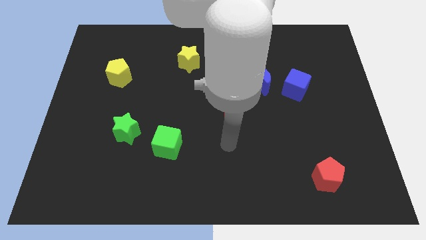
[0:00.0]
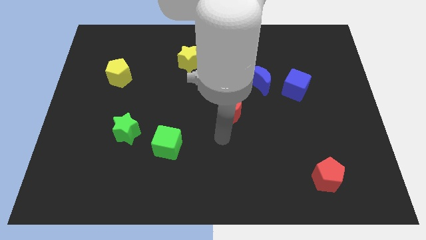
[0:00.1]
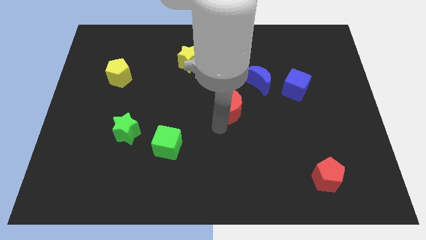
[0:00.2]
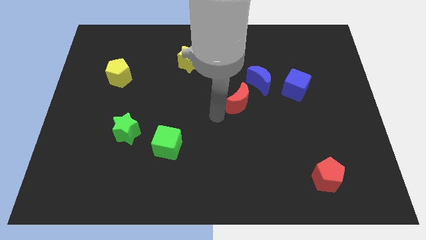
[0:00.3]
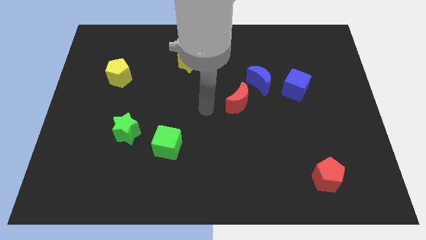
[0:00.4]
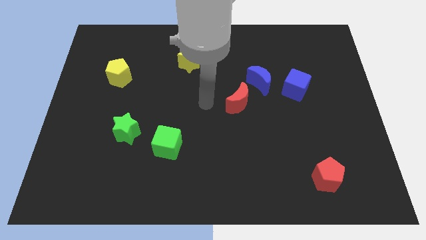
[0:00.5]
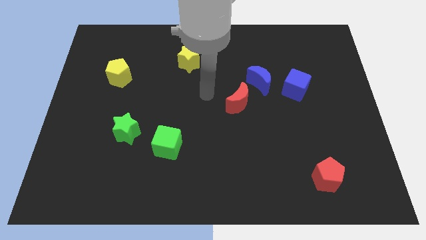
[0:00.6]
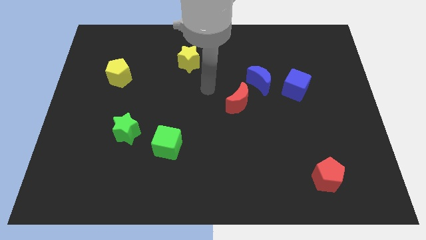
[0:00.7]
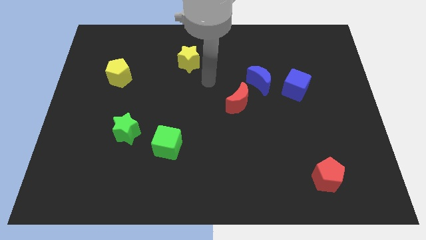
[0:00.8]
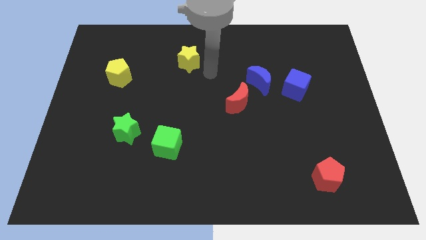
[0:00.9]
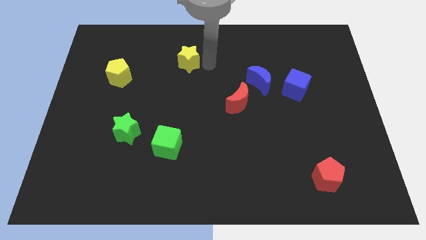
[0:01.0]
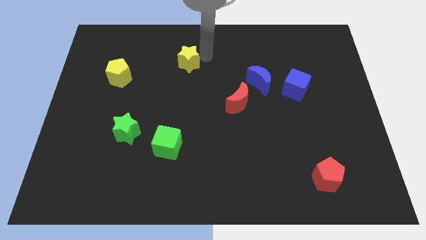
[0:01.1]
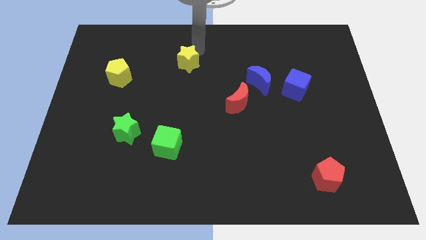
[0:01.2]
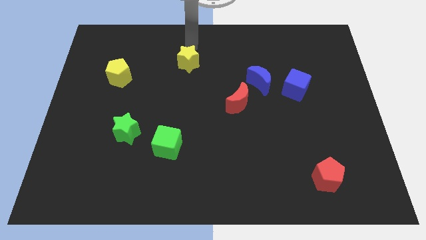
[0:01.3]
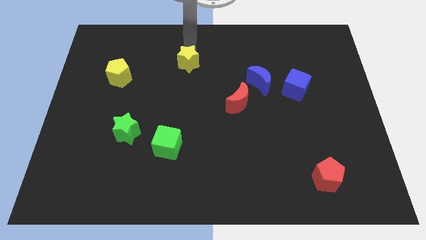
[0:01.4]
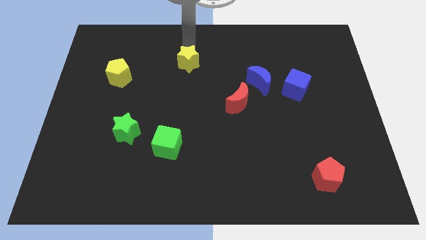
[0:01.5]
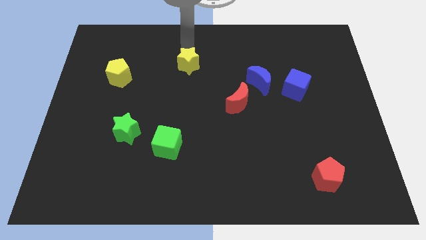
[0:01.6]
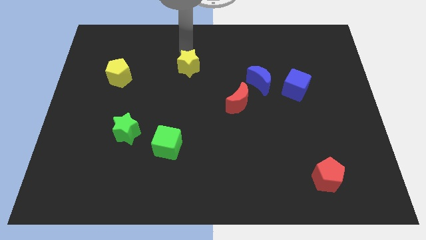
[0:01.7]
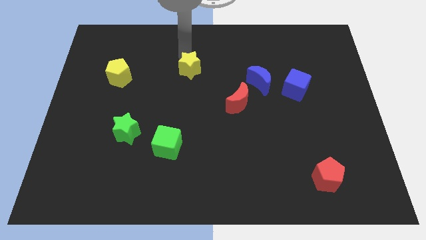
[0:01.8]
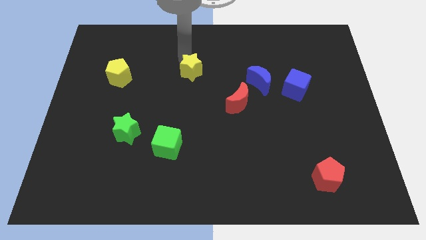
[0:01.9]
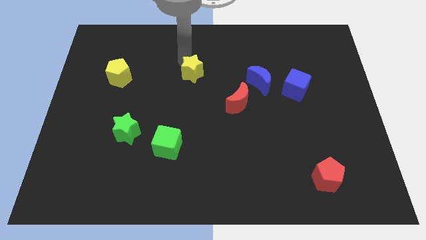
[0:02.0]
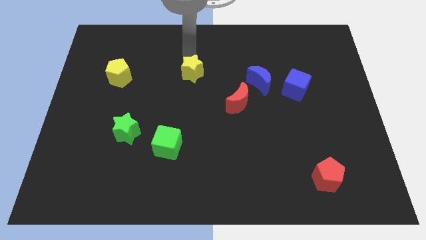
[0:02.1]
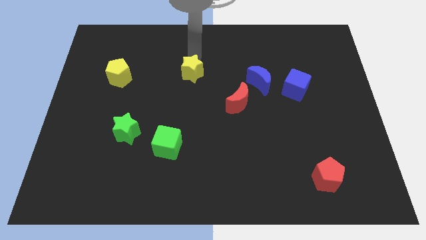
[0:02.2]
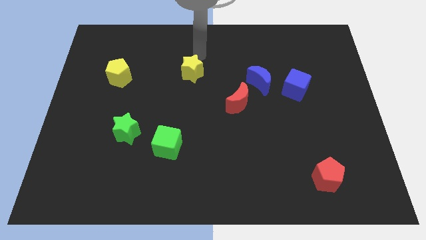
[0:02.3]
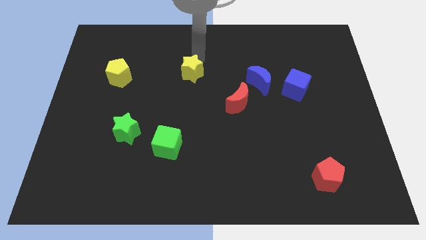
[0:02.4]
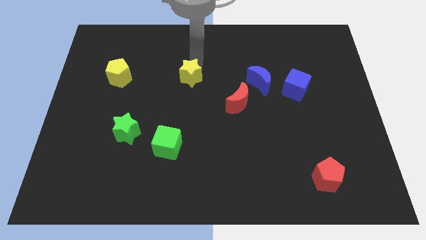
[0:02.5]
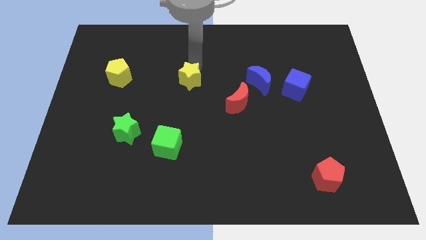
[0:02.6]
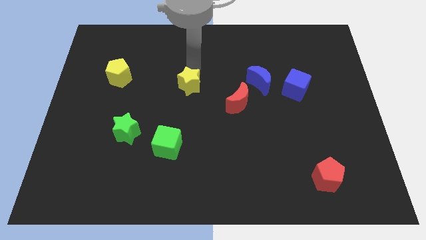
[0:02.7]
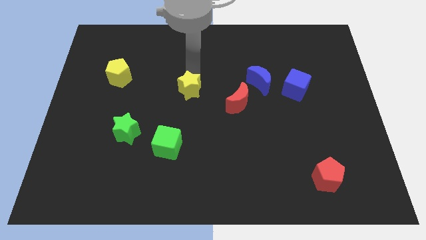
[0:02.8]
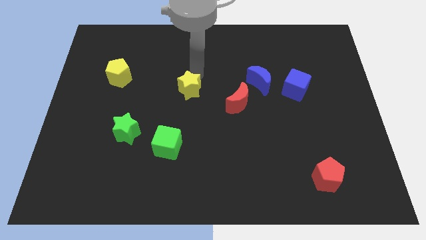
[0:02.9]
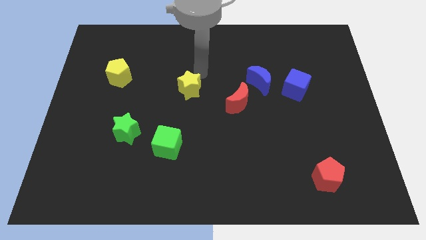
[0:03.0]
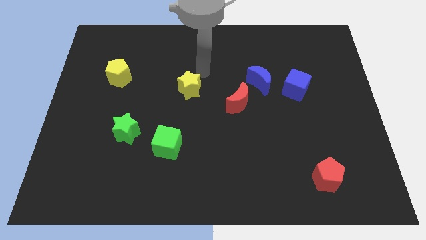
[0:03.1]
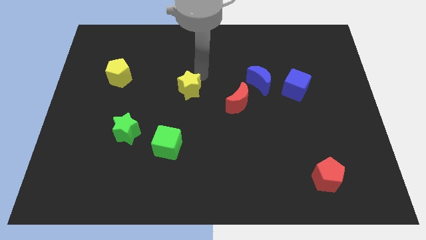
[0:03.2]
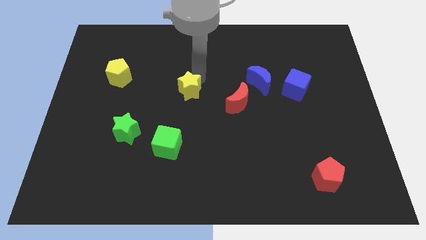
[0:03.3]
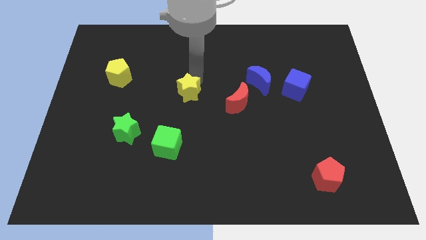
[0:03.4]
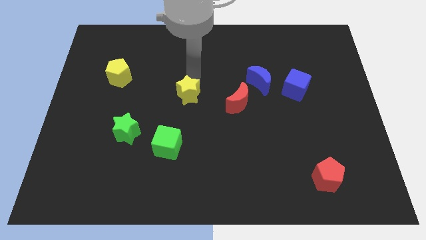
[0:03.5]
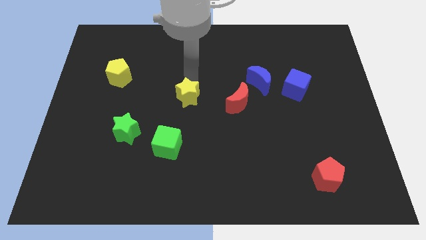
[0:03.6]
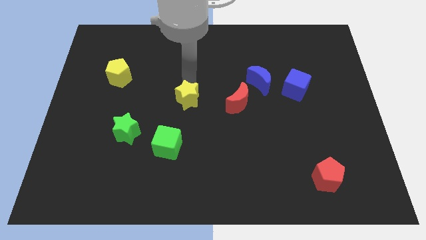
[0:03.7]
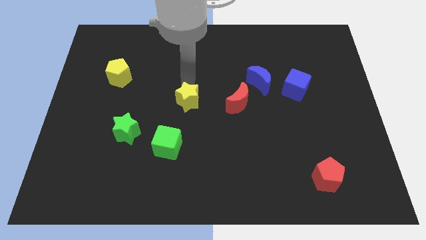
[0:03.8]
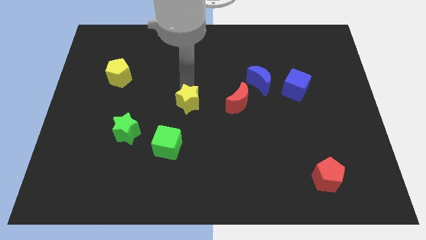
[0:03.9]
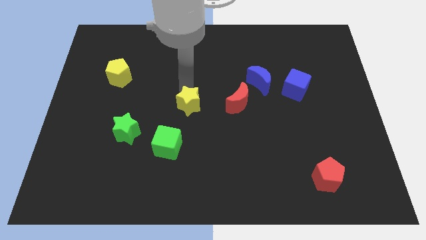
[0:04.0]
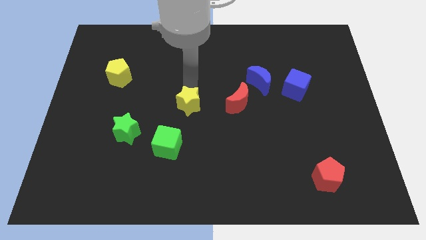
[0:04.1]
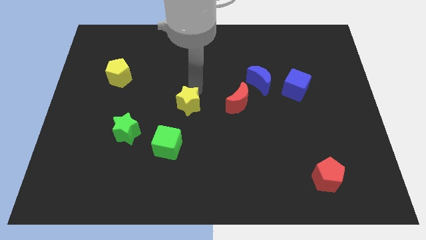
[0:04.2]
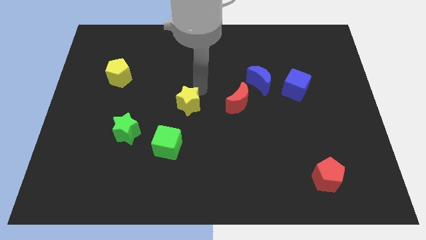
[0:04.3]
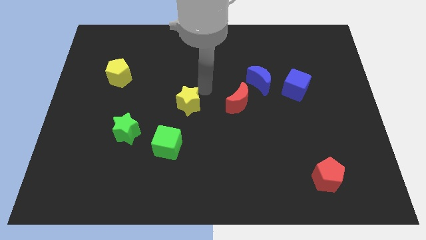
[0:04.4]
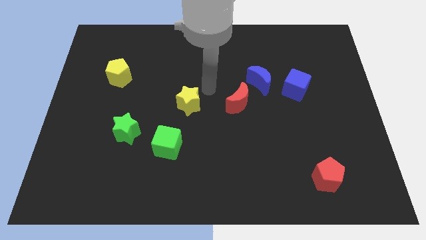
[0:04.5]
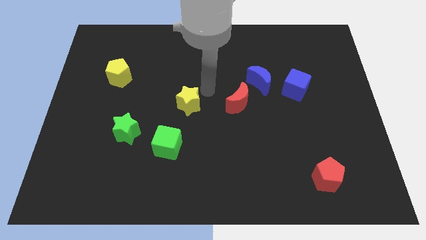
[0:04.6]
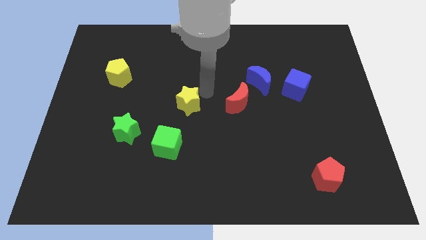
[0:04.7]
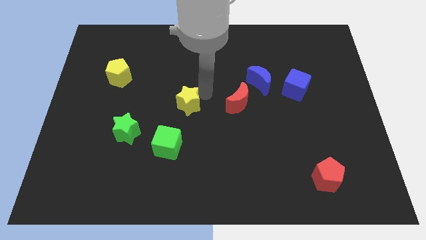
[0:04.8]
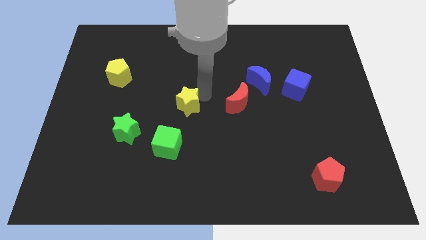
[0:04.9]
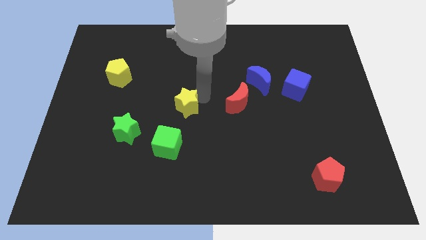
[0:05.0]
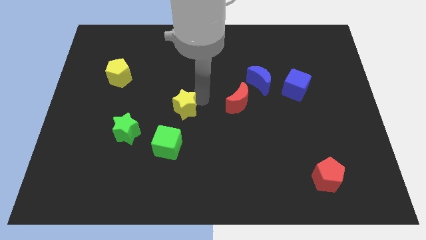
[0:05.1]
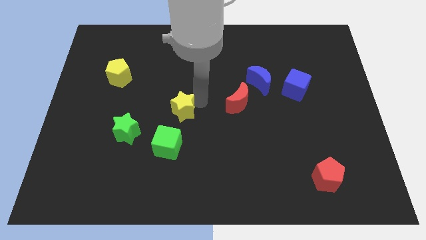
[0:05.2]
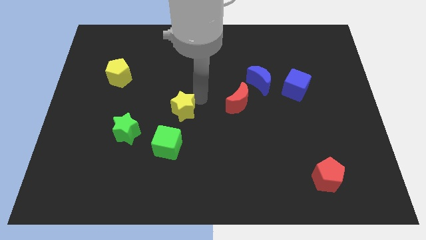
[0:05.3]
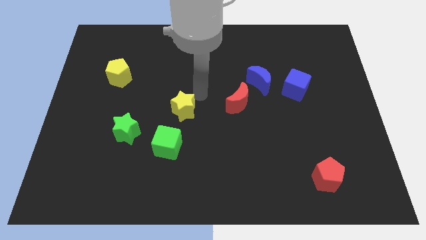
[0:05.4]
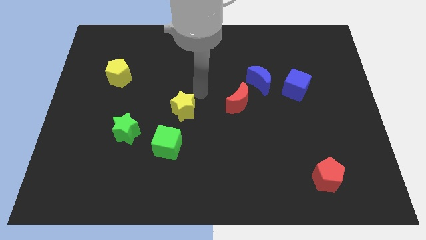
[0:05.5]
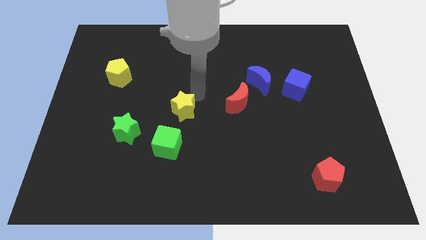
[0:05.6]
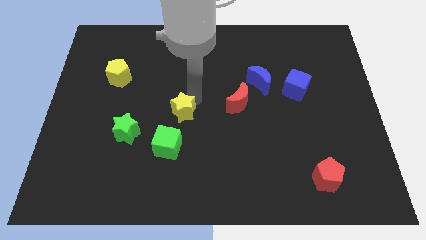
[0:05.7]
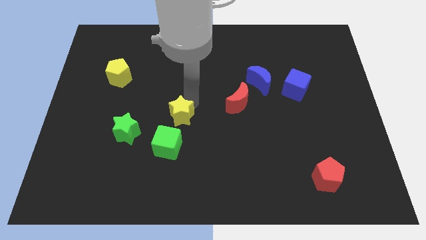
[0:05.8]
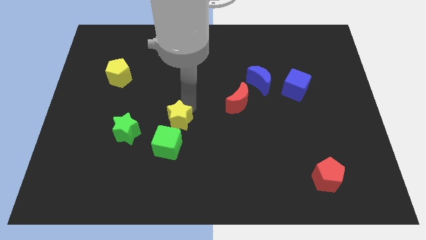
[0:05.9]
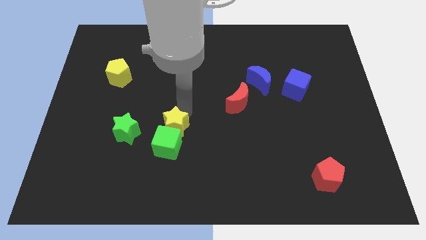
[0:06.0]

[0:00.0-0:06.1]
push the yellow star to the green cube

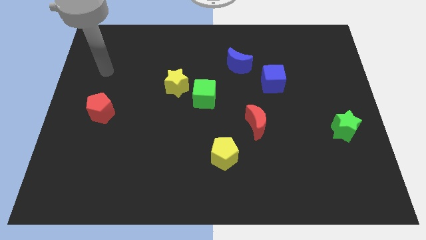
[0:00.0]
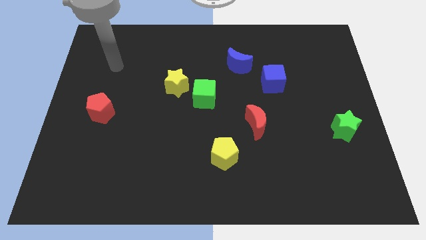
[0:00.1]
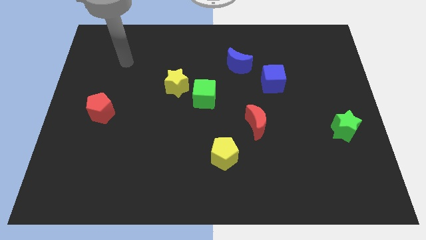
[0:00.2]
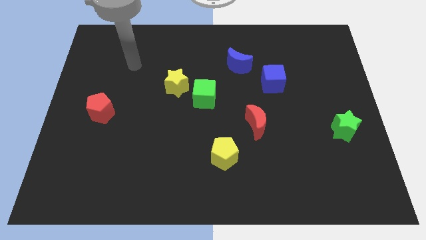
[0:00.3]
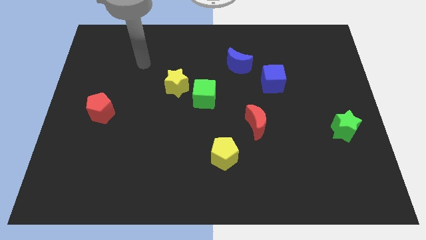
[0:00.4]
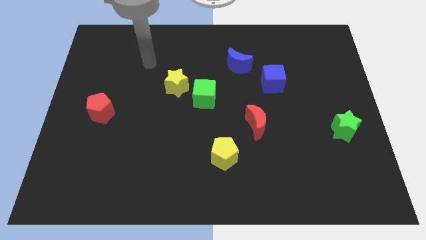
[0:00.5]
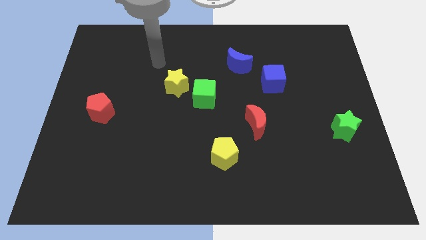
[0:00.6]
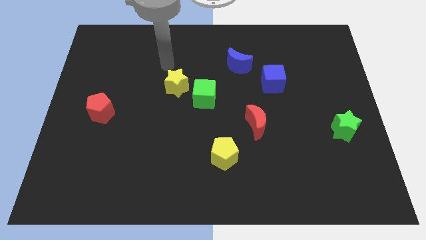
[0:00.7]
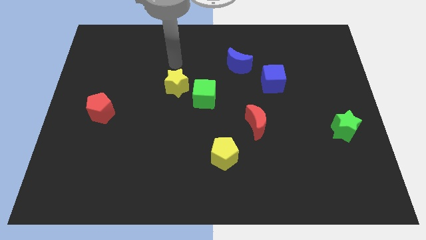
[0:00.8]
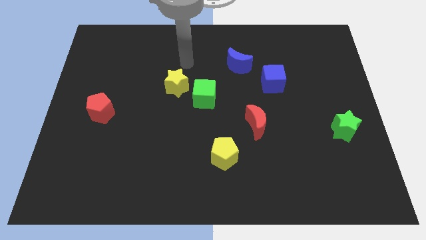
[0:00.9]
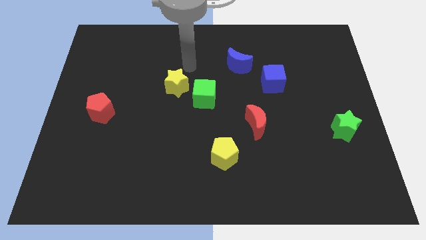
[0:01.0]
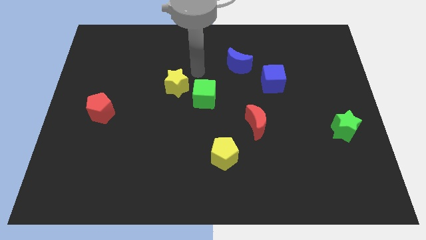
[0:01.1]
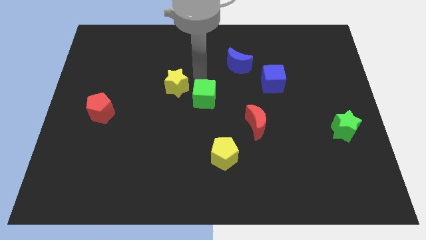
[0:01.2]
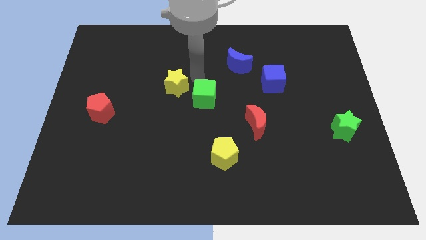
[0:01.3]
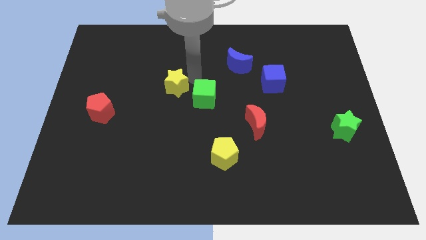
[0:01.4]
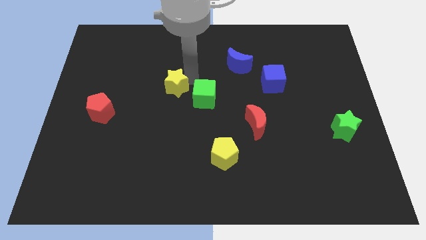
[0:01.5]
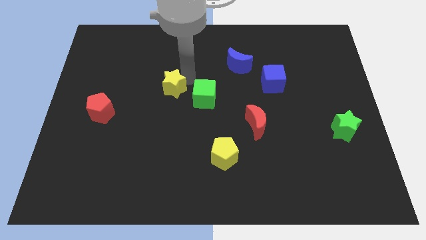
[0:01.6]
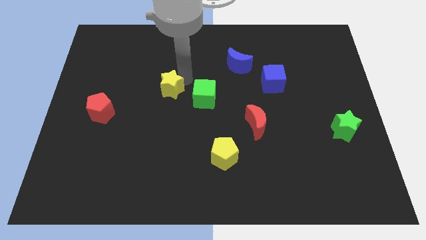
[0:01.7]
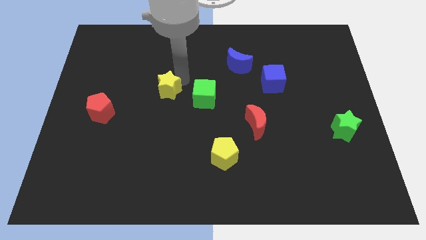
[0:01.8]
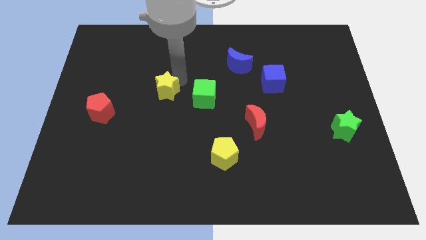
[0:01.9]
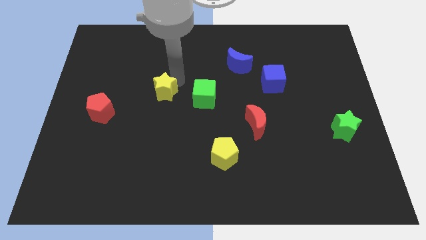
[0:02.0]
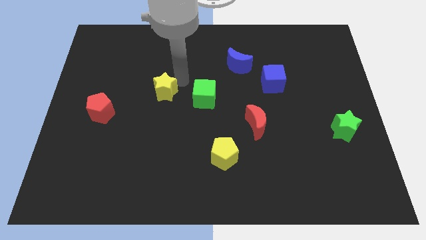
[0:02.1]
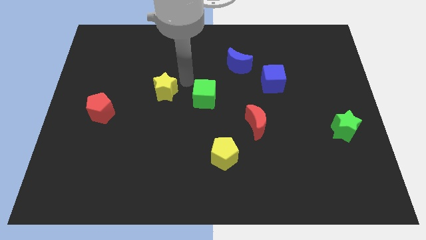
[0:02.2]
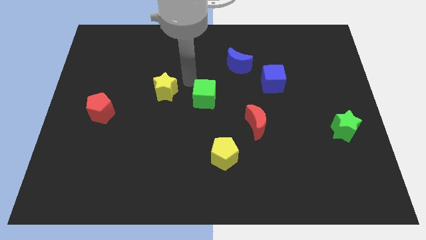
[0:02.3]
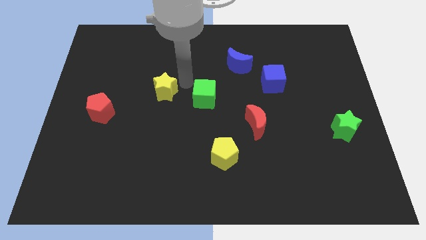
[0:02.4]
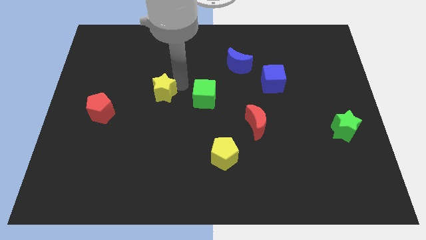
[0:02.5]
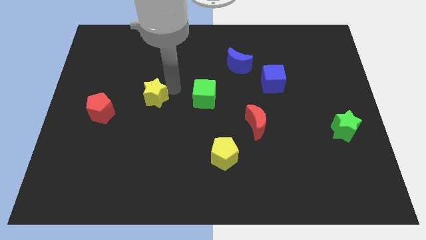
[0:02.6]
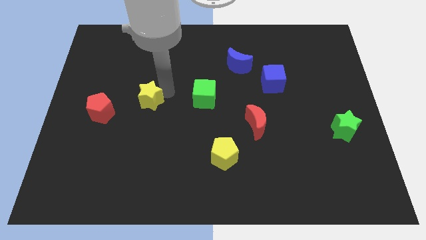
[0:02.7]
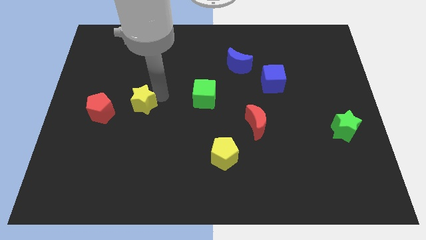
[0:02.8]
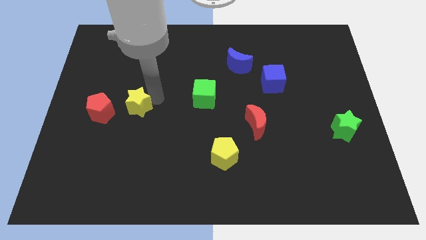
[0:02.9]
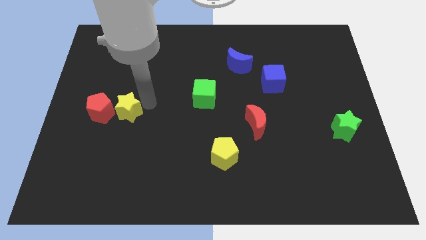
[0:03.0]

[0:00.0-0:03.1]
slide the yellow star to the red pentagon
